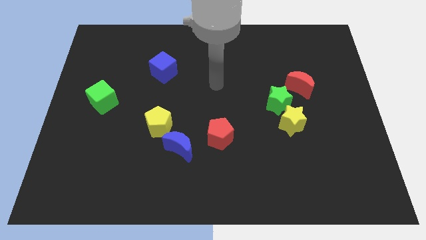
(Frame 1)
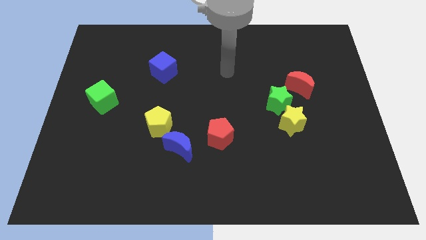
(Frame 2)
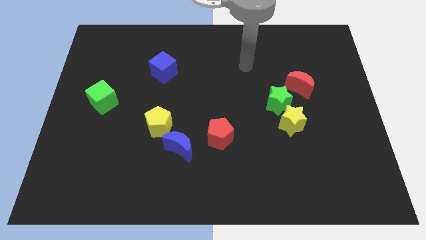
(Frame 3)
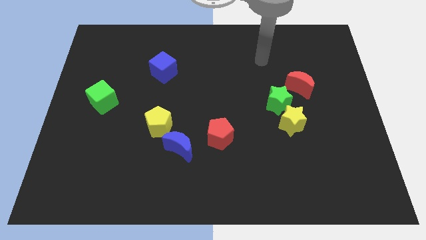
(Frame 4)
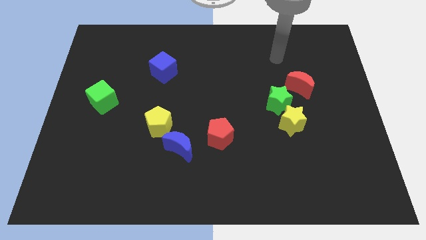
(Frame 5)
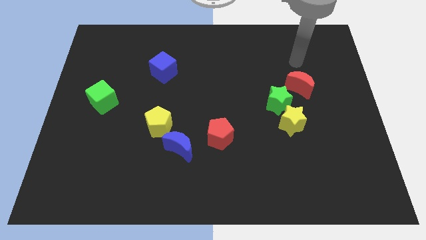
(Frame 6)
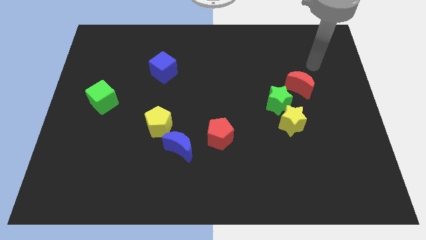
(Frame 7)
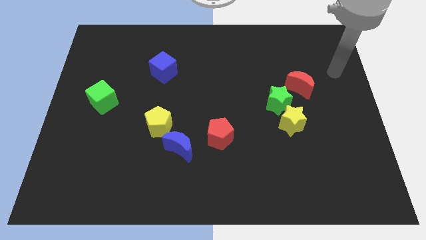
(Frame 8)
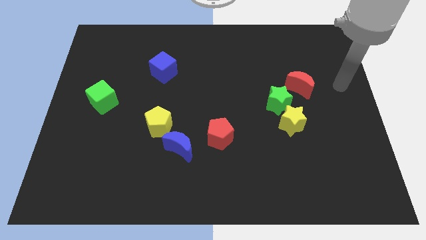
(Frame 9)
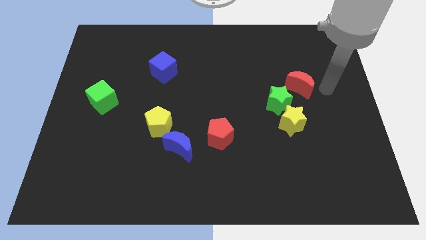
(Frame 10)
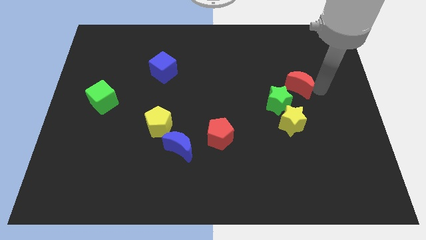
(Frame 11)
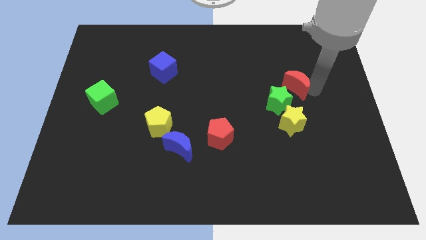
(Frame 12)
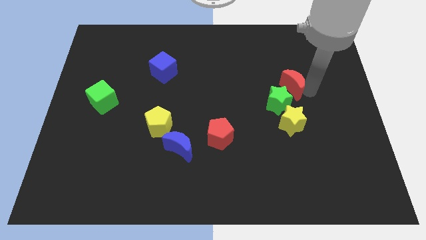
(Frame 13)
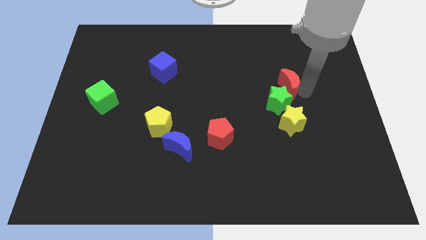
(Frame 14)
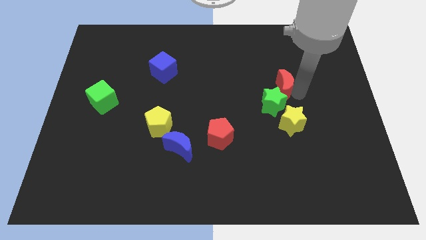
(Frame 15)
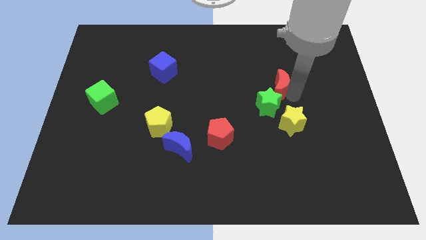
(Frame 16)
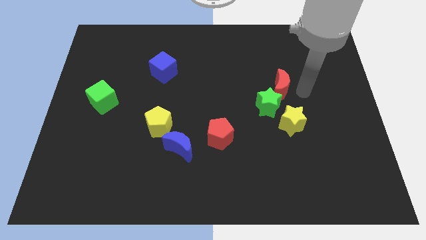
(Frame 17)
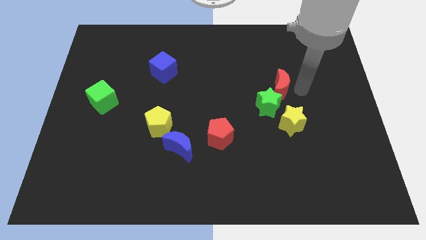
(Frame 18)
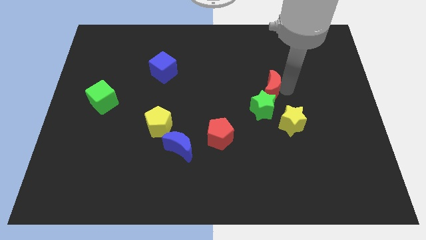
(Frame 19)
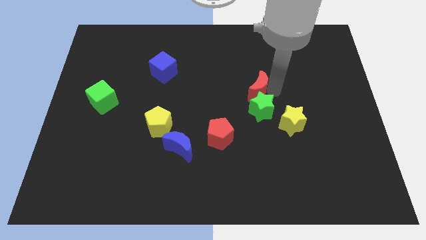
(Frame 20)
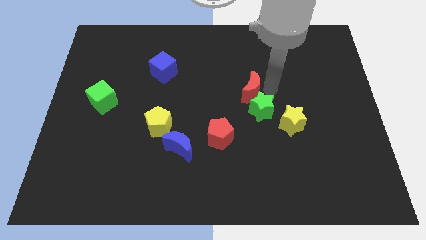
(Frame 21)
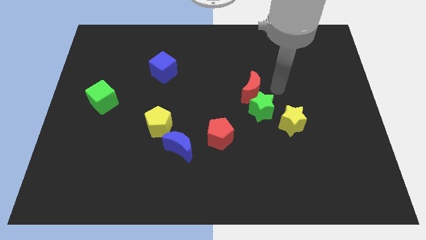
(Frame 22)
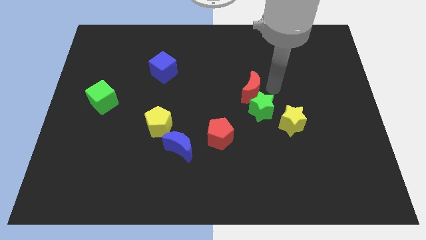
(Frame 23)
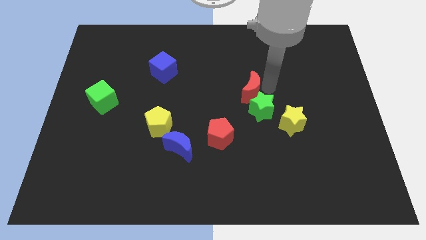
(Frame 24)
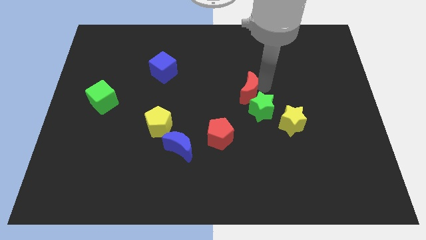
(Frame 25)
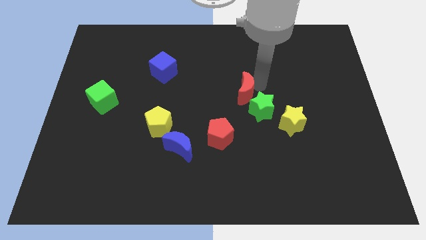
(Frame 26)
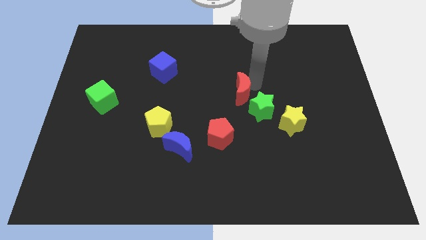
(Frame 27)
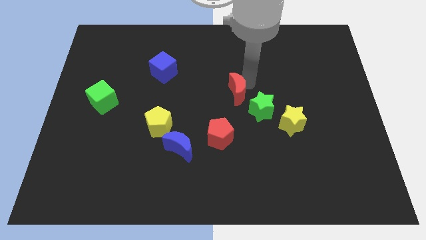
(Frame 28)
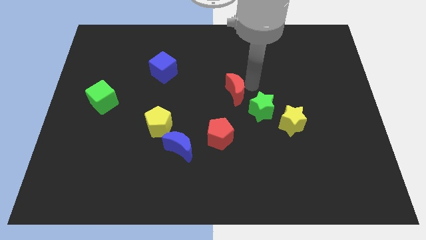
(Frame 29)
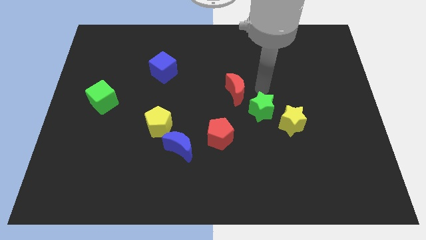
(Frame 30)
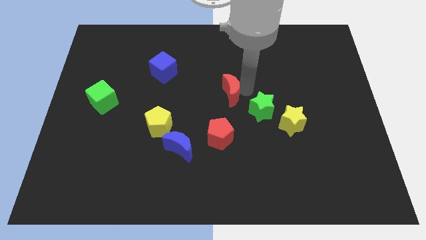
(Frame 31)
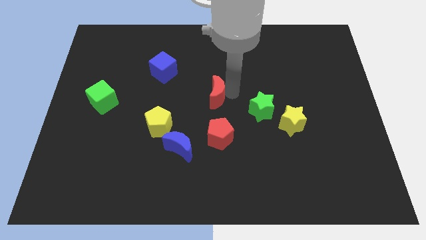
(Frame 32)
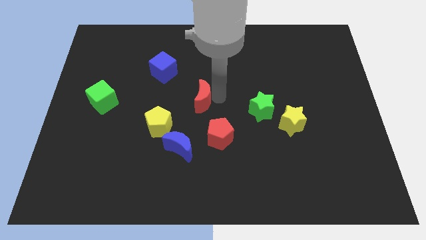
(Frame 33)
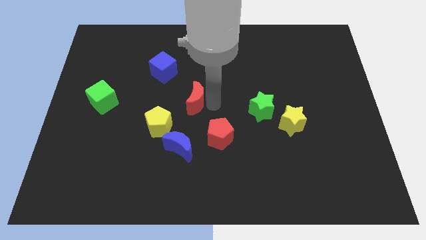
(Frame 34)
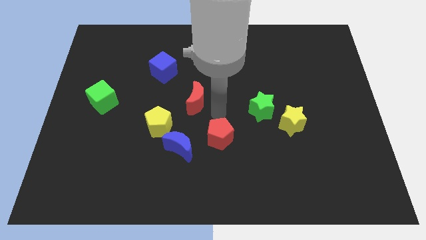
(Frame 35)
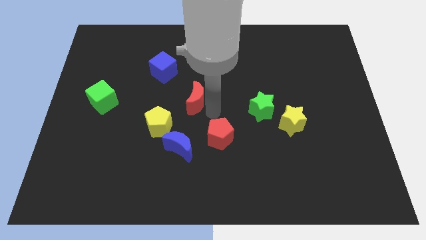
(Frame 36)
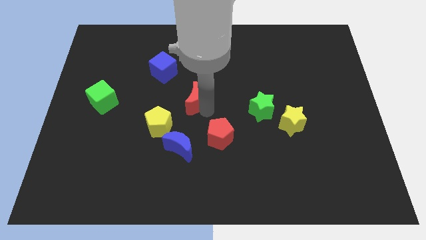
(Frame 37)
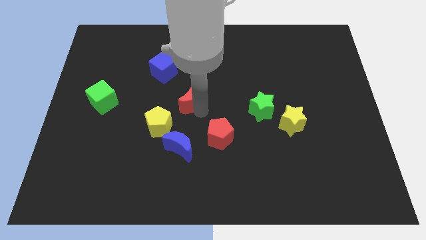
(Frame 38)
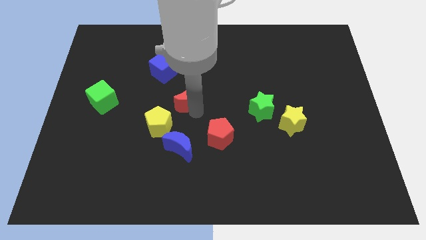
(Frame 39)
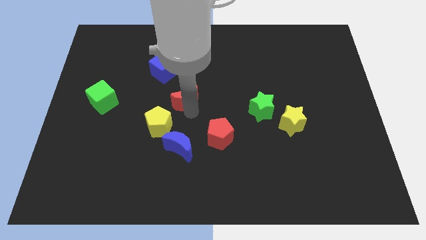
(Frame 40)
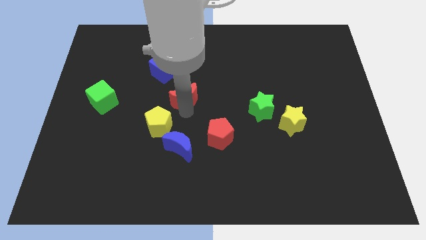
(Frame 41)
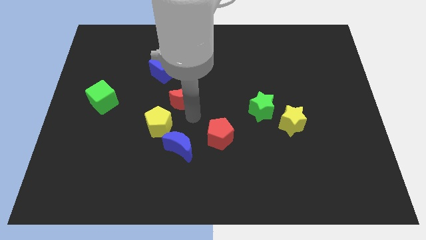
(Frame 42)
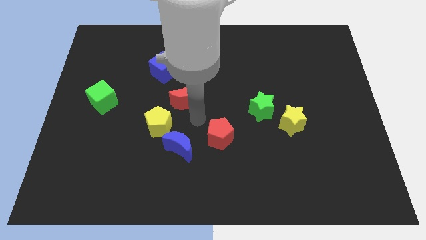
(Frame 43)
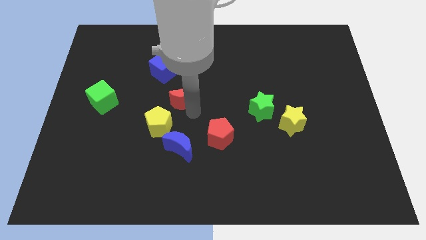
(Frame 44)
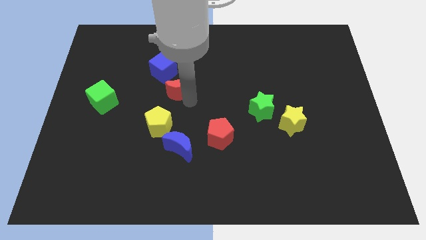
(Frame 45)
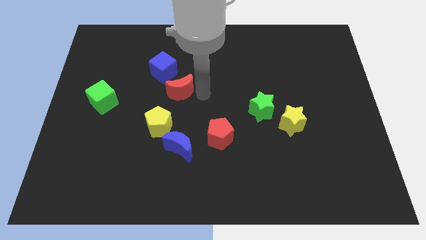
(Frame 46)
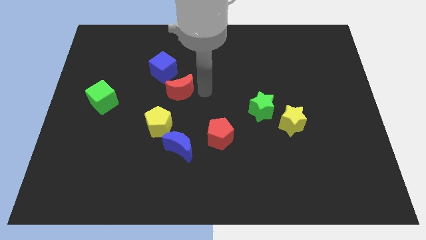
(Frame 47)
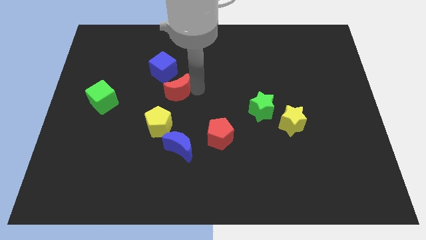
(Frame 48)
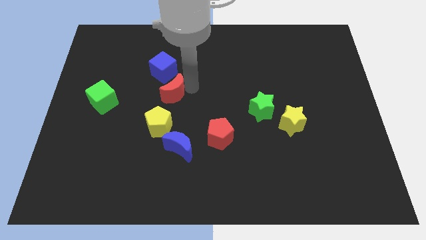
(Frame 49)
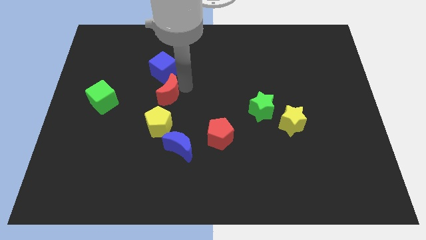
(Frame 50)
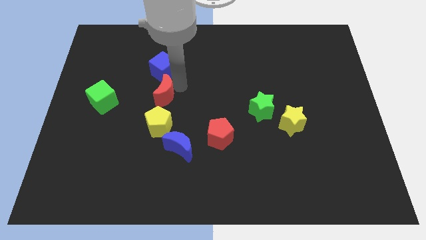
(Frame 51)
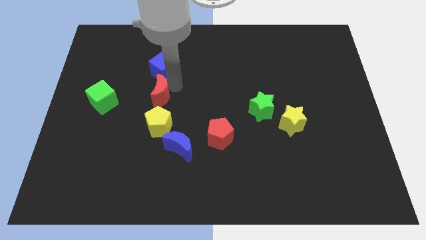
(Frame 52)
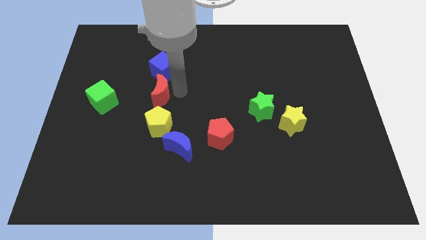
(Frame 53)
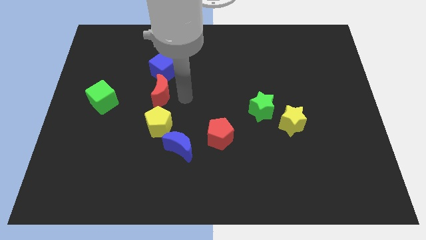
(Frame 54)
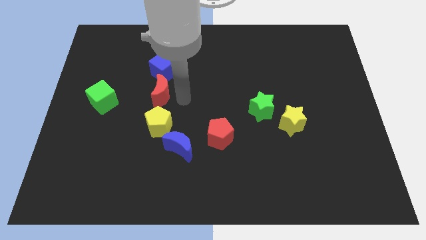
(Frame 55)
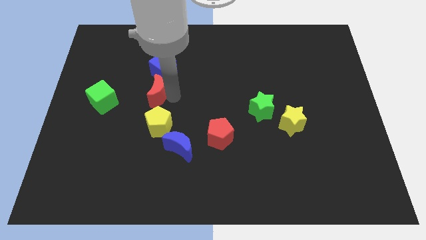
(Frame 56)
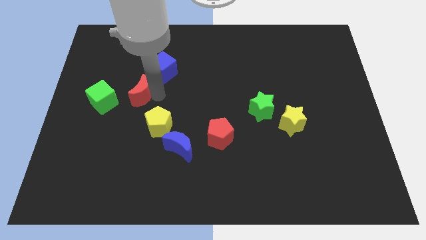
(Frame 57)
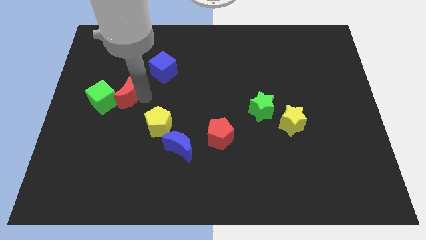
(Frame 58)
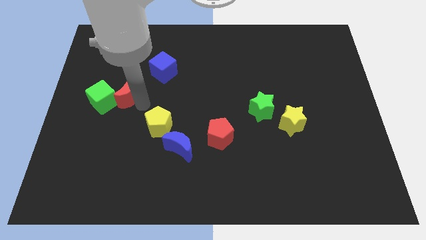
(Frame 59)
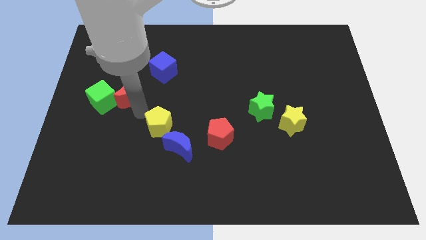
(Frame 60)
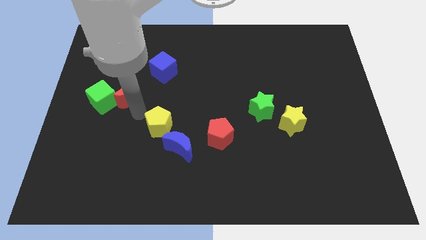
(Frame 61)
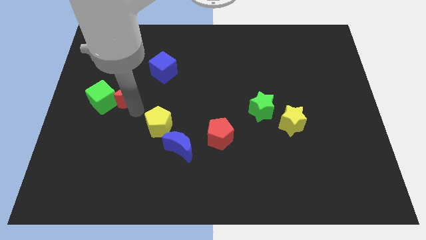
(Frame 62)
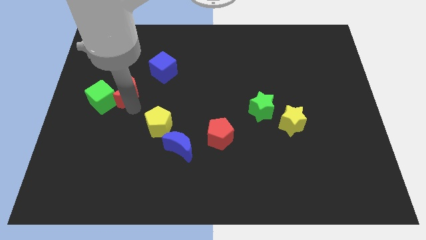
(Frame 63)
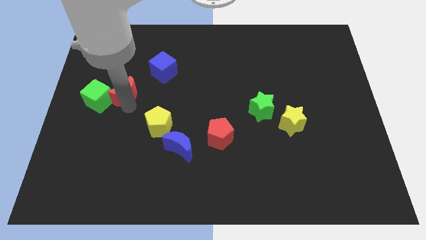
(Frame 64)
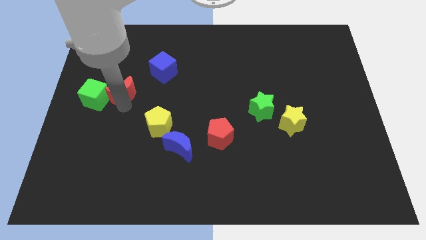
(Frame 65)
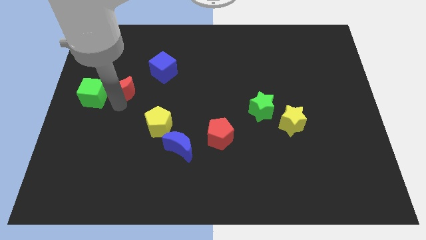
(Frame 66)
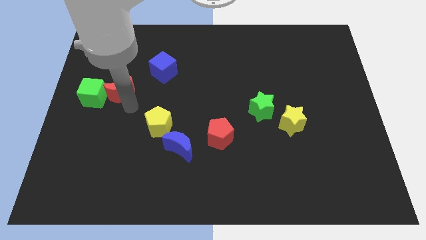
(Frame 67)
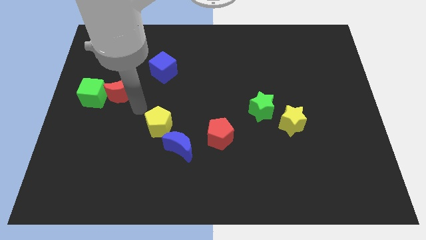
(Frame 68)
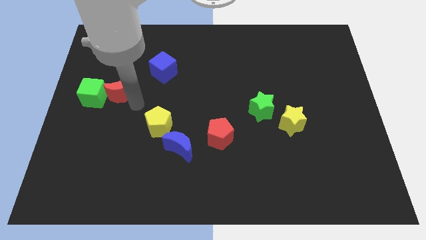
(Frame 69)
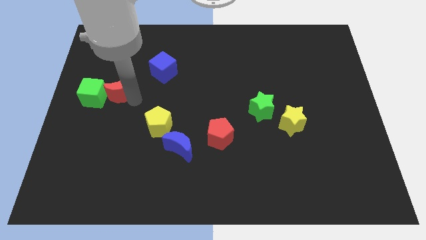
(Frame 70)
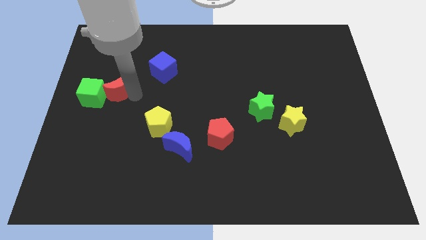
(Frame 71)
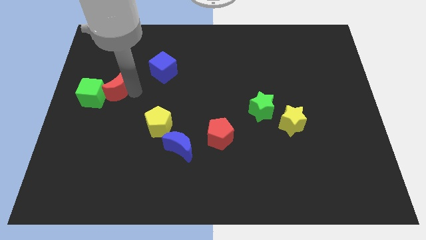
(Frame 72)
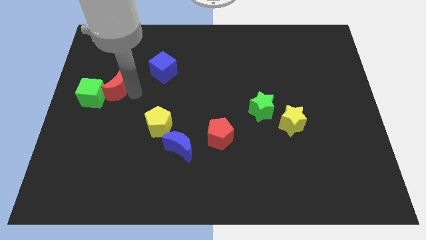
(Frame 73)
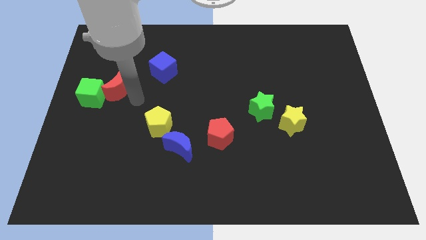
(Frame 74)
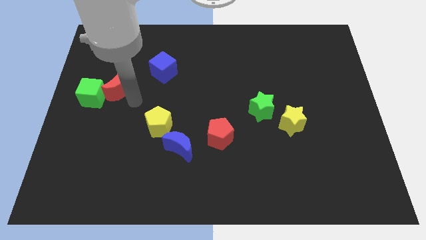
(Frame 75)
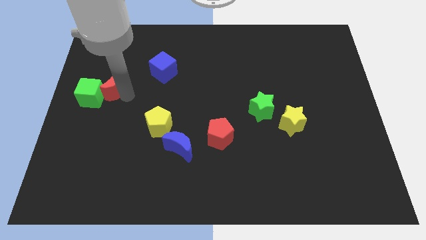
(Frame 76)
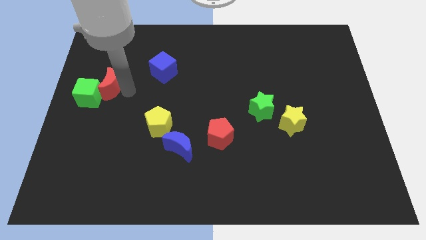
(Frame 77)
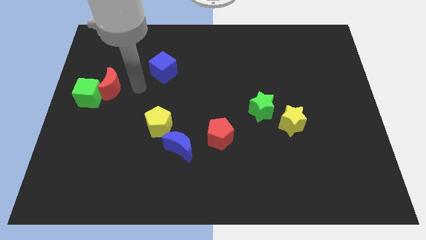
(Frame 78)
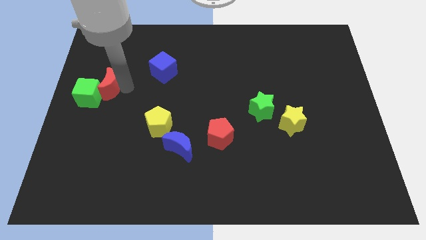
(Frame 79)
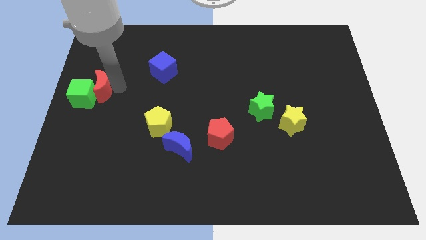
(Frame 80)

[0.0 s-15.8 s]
move the red moon to the left side of the board
